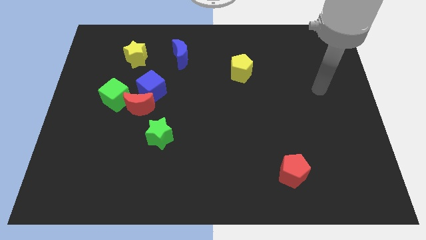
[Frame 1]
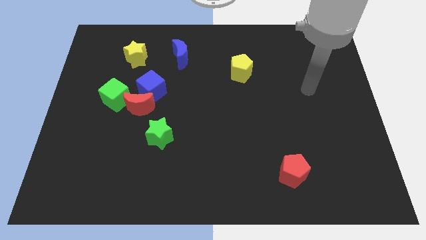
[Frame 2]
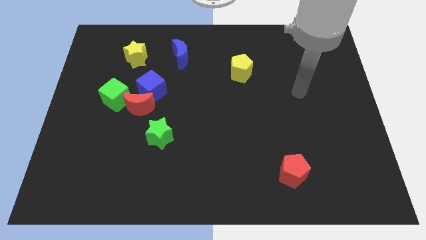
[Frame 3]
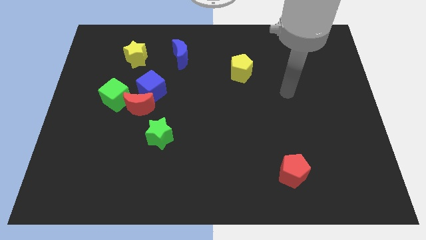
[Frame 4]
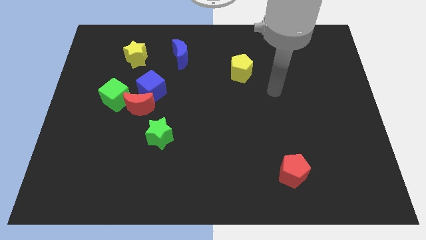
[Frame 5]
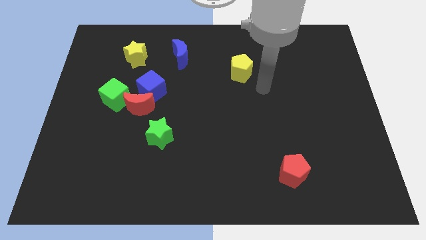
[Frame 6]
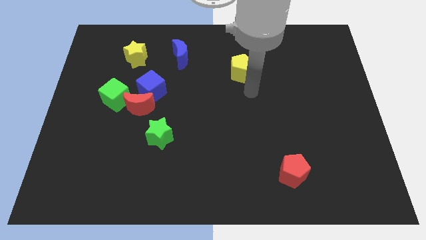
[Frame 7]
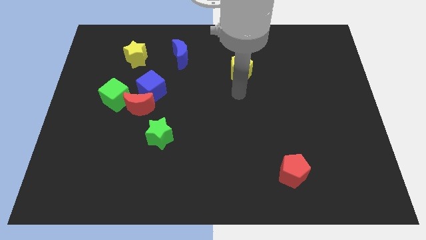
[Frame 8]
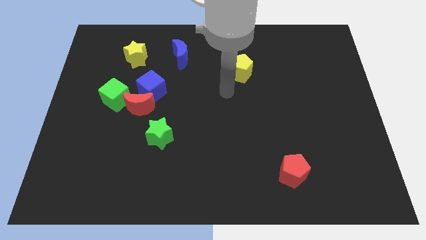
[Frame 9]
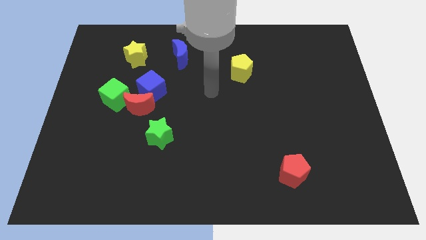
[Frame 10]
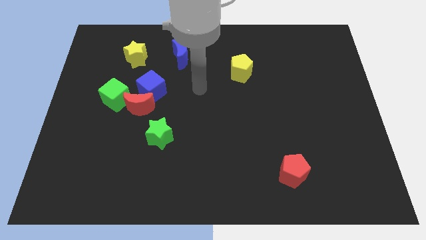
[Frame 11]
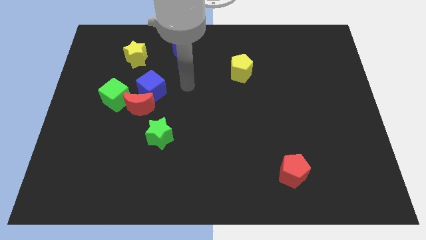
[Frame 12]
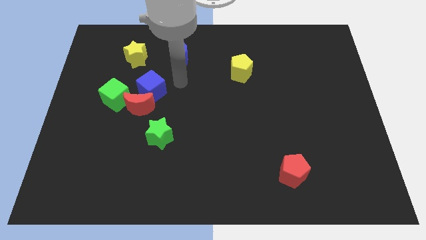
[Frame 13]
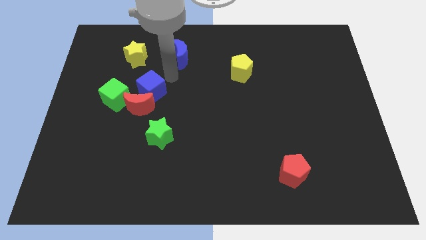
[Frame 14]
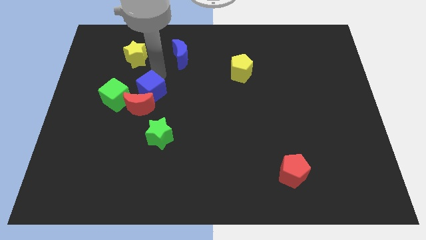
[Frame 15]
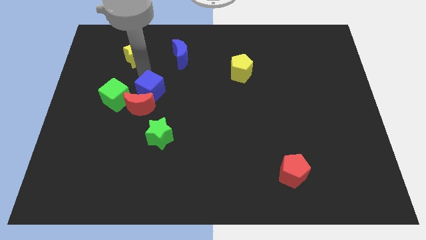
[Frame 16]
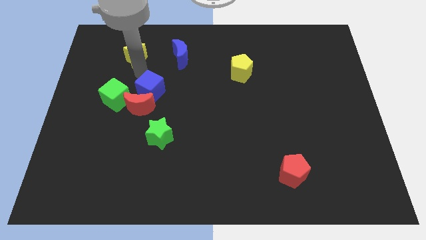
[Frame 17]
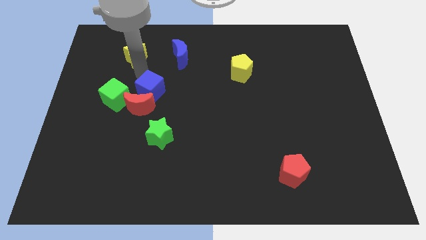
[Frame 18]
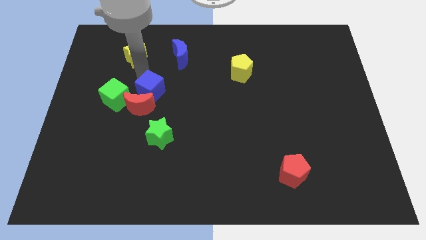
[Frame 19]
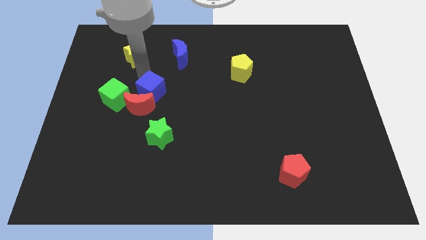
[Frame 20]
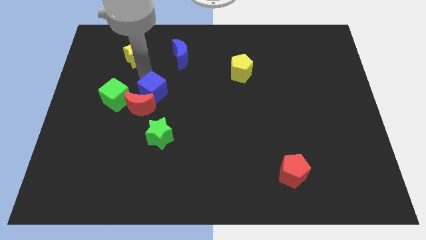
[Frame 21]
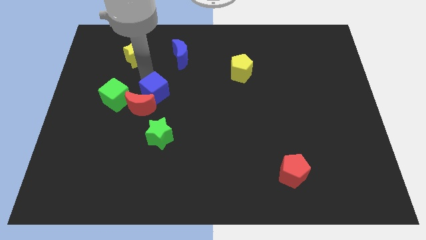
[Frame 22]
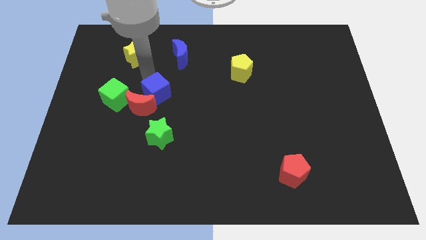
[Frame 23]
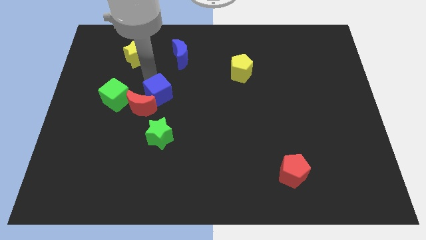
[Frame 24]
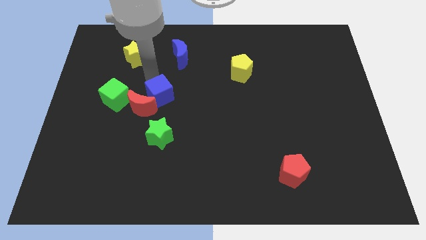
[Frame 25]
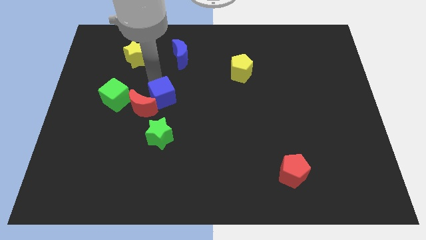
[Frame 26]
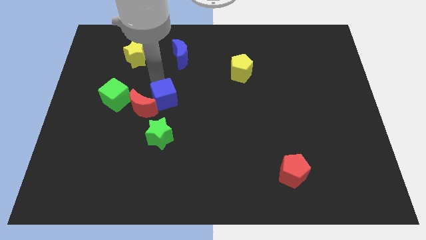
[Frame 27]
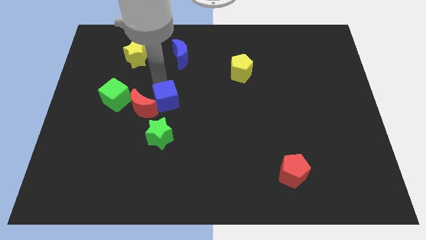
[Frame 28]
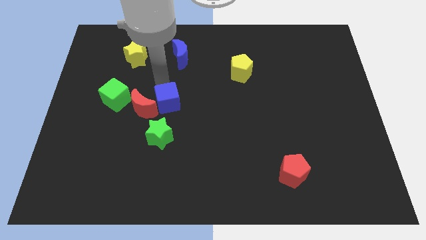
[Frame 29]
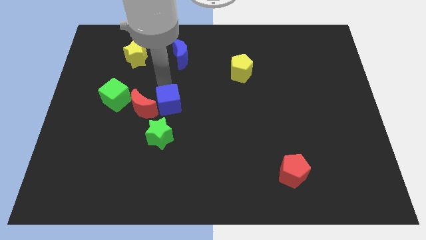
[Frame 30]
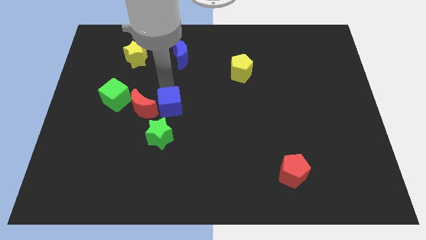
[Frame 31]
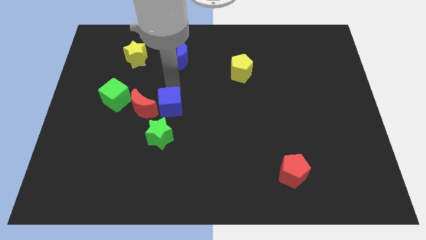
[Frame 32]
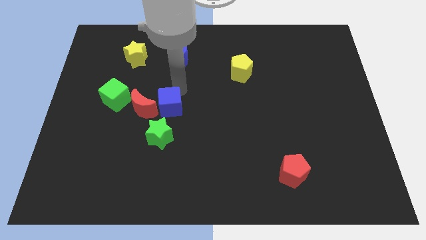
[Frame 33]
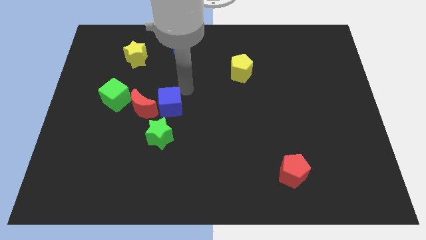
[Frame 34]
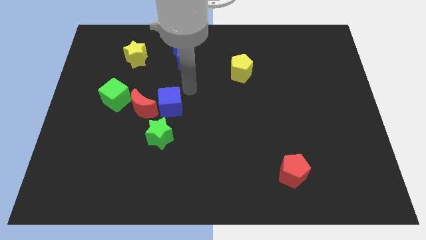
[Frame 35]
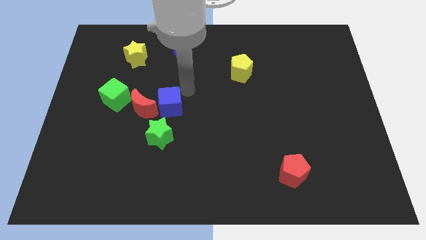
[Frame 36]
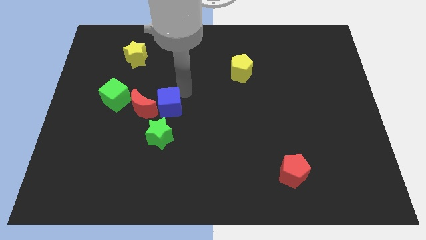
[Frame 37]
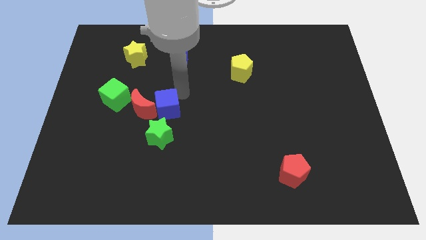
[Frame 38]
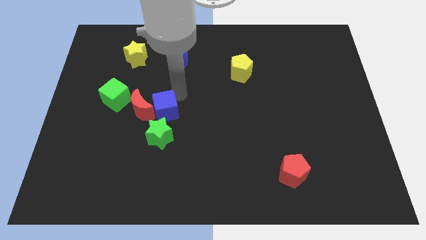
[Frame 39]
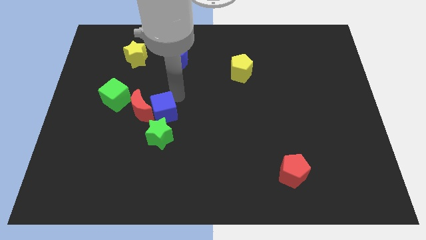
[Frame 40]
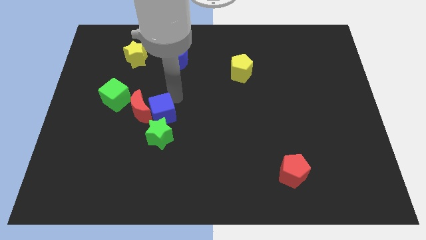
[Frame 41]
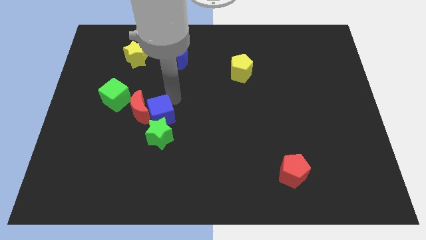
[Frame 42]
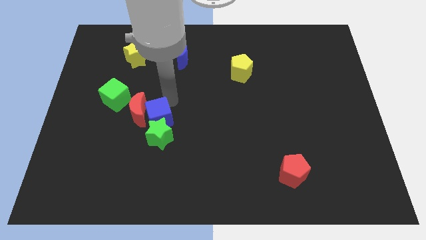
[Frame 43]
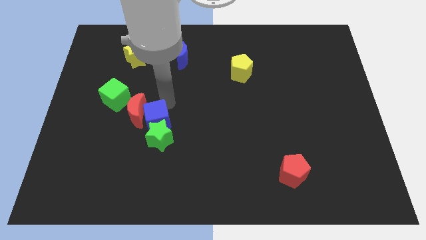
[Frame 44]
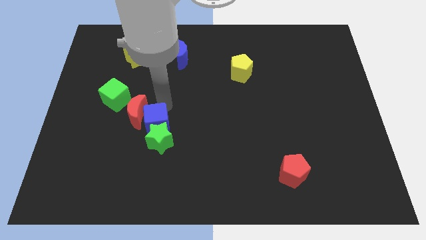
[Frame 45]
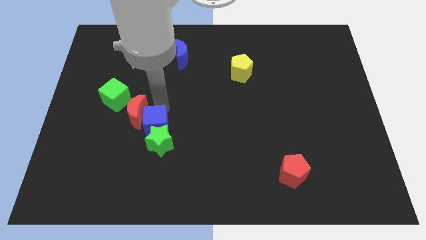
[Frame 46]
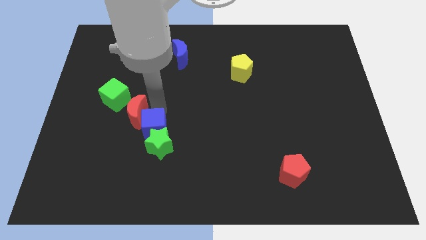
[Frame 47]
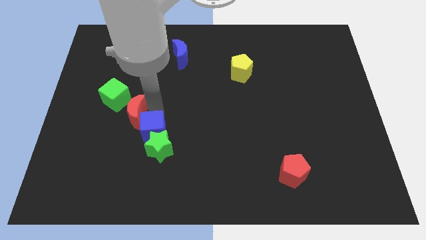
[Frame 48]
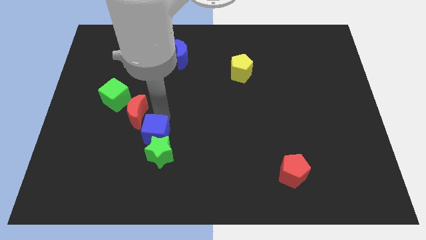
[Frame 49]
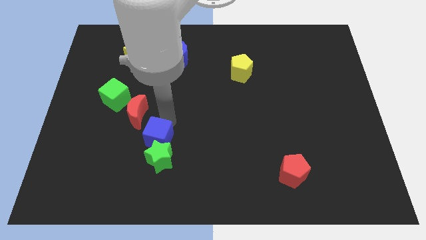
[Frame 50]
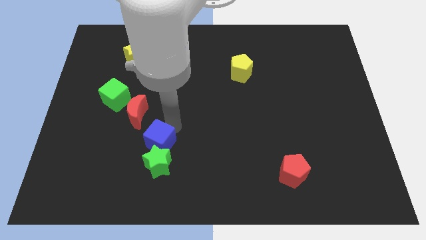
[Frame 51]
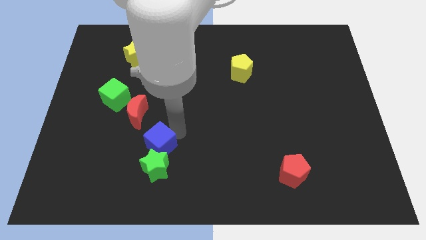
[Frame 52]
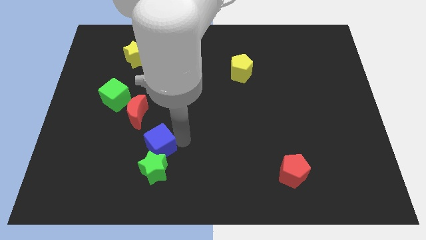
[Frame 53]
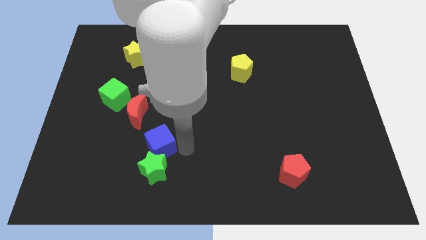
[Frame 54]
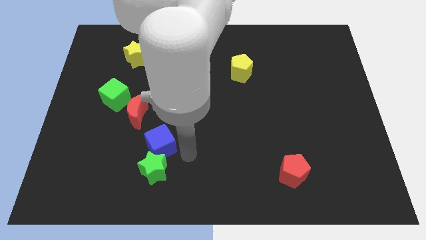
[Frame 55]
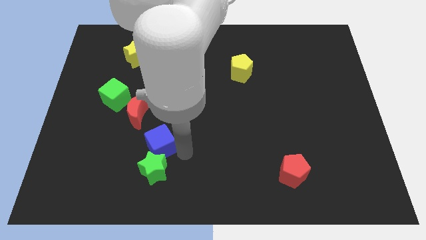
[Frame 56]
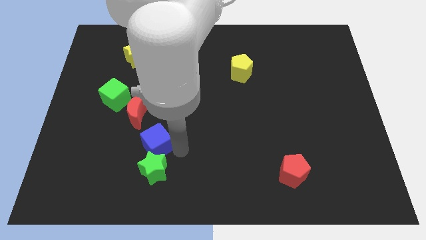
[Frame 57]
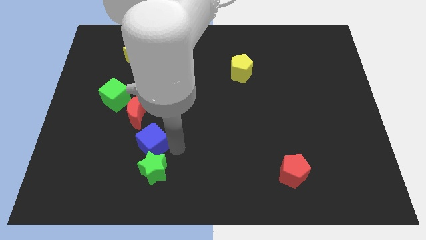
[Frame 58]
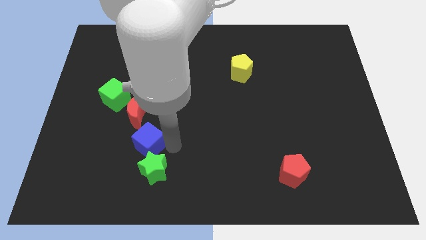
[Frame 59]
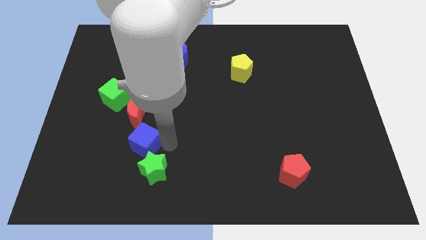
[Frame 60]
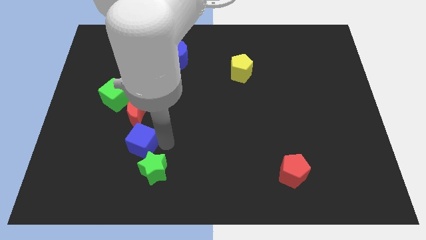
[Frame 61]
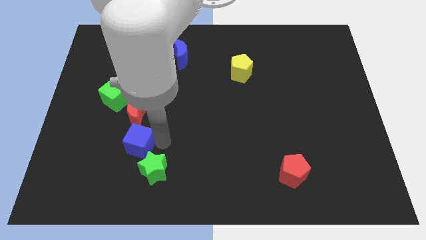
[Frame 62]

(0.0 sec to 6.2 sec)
slightly move the blue cube down and left

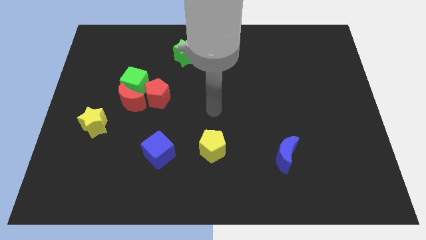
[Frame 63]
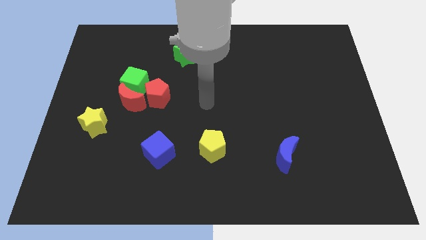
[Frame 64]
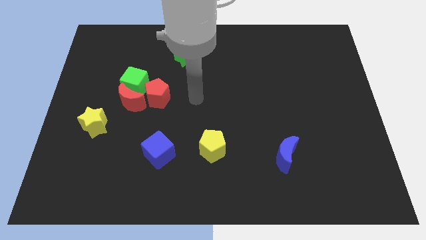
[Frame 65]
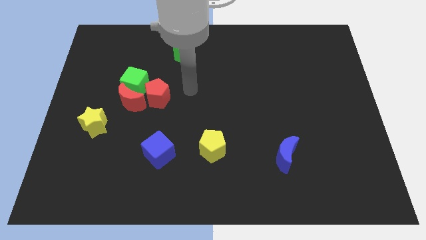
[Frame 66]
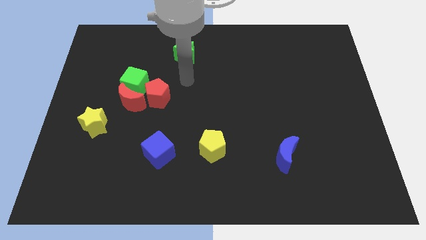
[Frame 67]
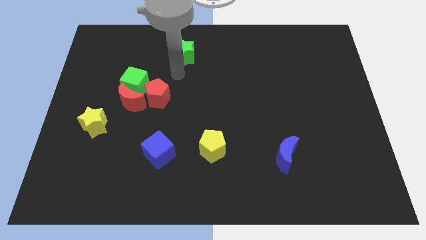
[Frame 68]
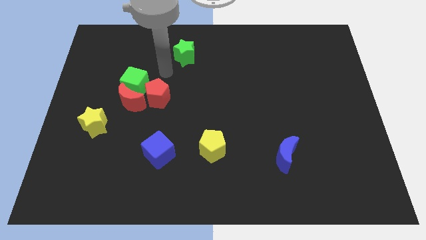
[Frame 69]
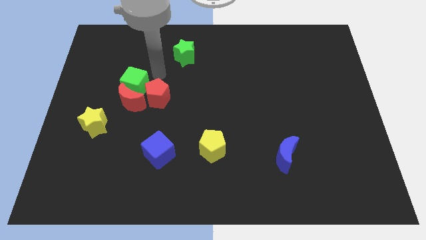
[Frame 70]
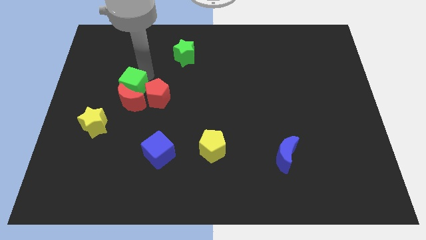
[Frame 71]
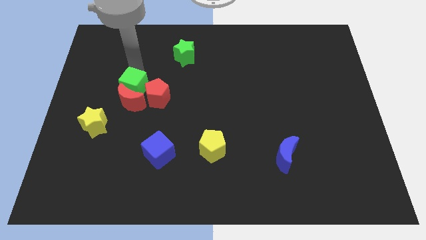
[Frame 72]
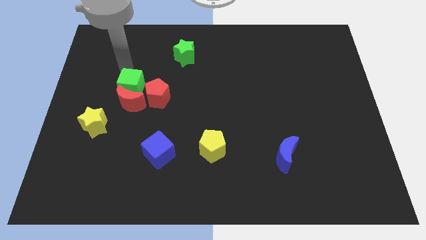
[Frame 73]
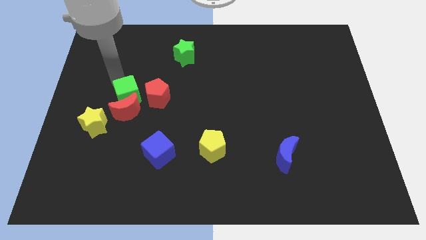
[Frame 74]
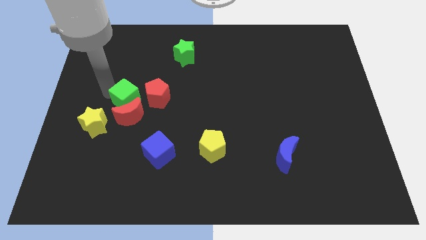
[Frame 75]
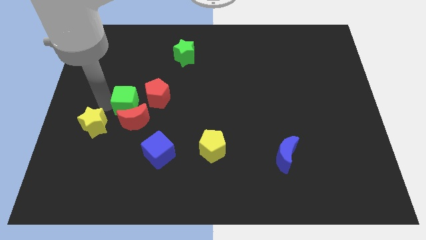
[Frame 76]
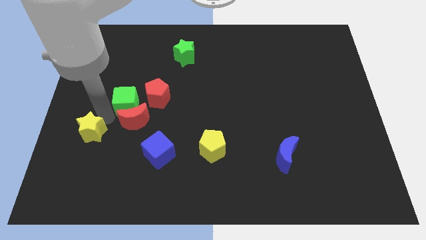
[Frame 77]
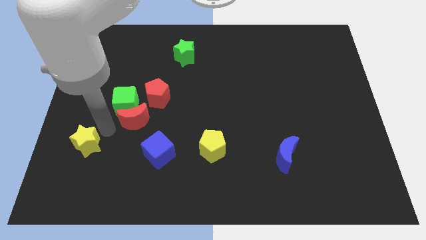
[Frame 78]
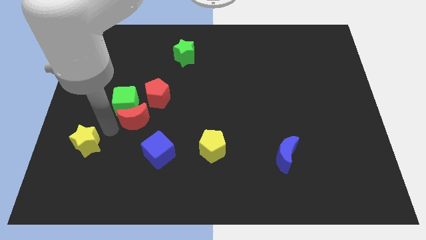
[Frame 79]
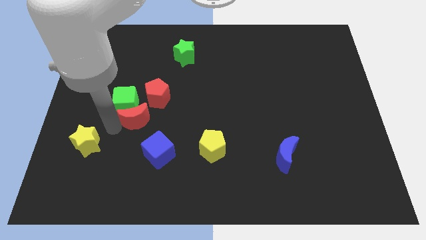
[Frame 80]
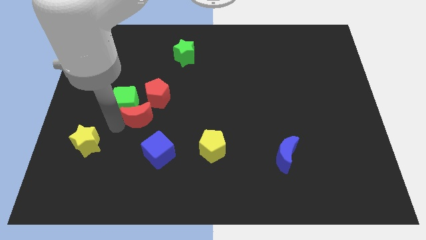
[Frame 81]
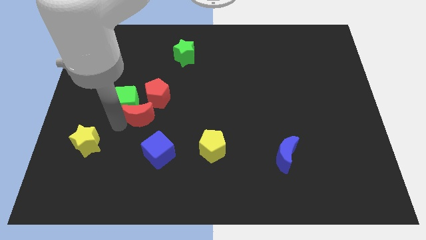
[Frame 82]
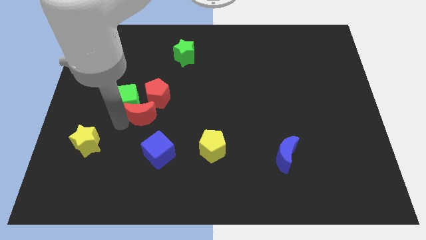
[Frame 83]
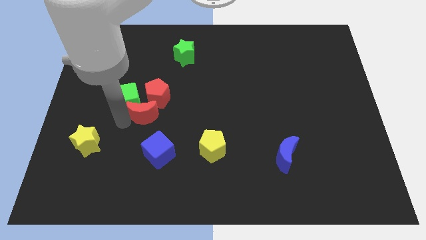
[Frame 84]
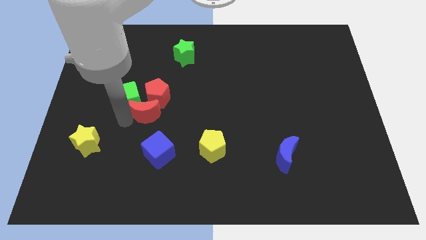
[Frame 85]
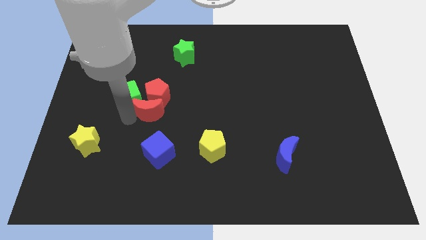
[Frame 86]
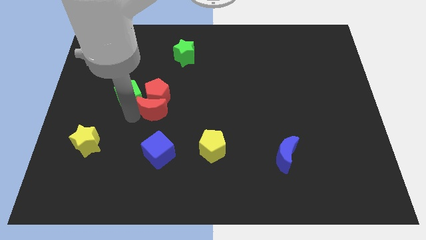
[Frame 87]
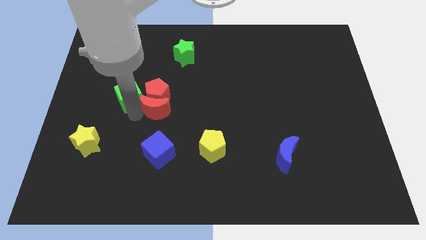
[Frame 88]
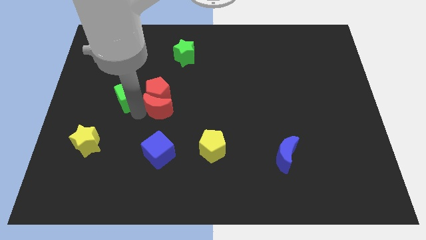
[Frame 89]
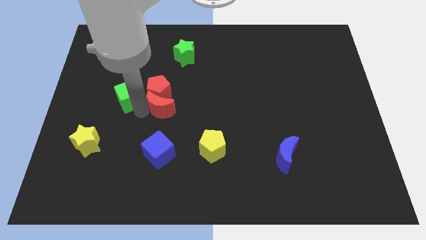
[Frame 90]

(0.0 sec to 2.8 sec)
push the red moon a little to the right
